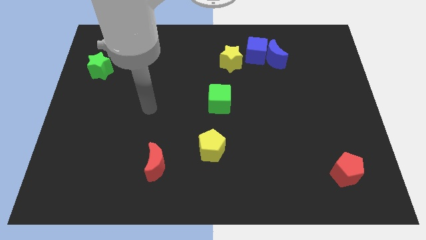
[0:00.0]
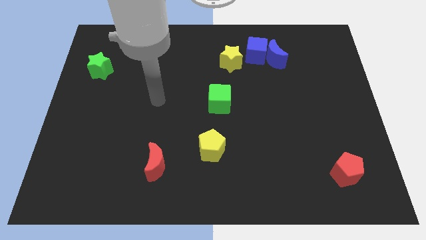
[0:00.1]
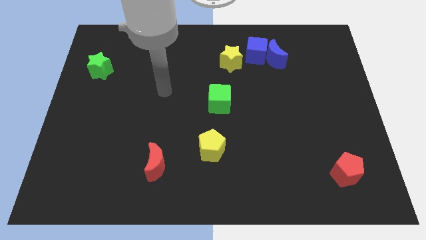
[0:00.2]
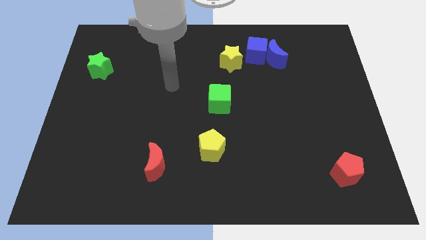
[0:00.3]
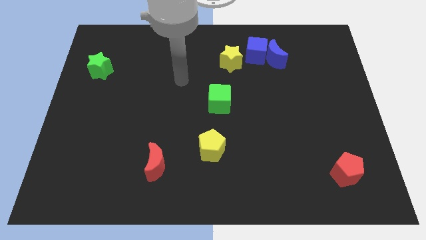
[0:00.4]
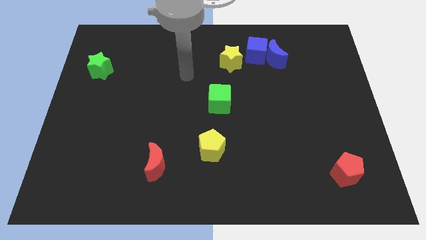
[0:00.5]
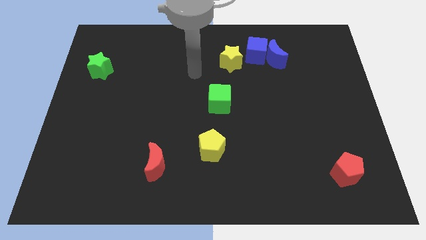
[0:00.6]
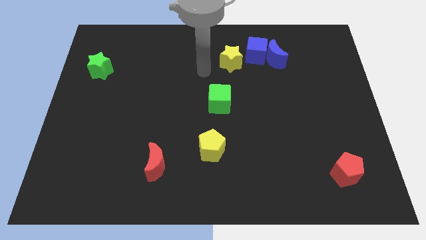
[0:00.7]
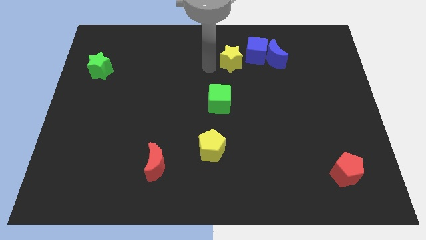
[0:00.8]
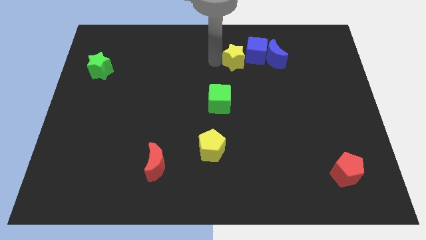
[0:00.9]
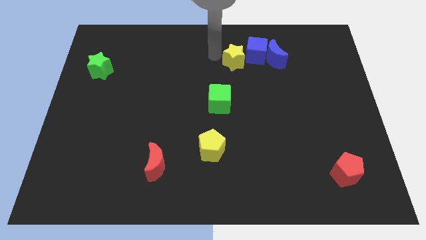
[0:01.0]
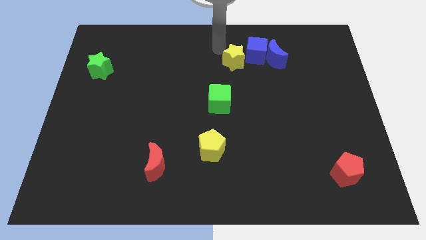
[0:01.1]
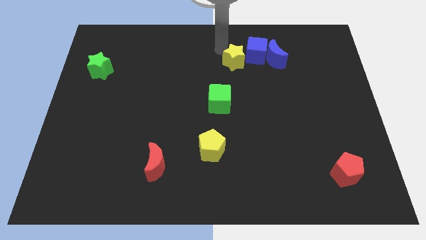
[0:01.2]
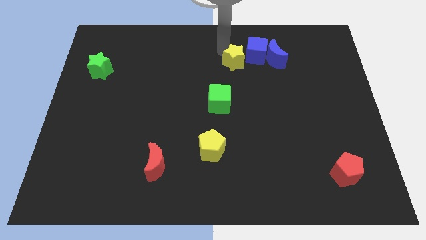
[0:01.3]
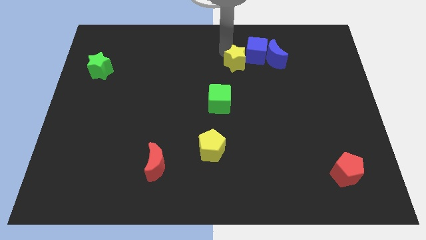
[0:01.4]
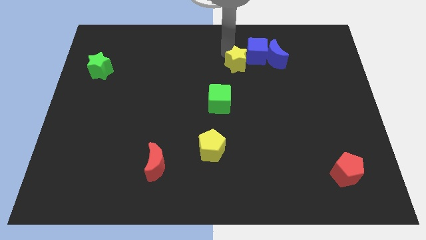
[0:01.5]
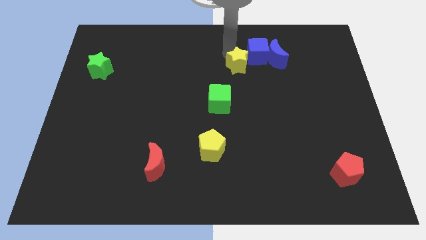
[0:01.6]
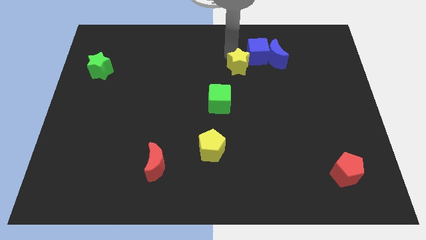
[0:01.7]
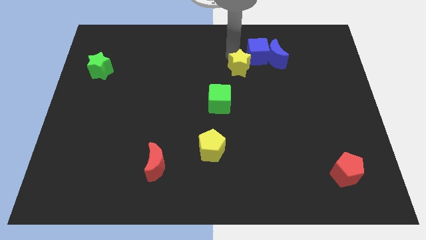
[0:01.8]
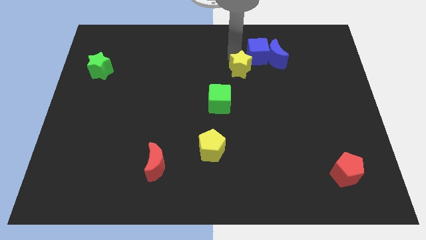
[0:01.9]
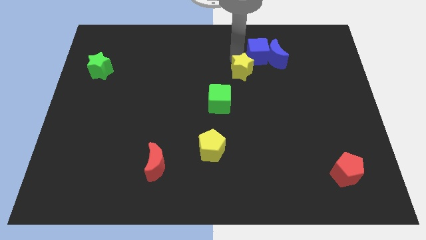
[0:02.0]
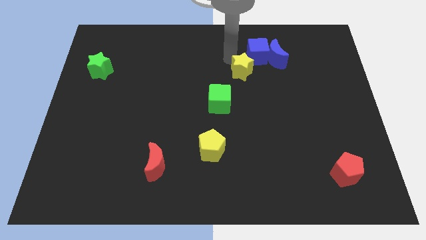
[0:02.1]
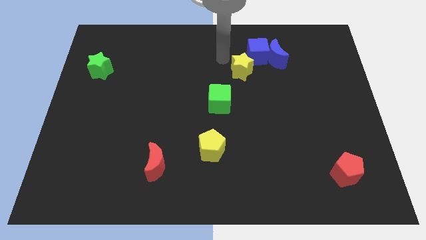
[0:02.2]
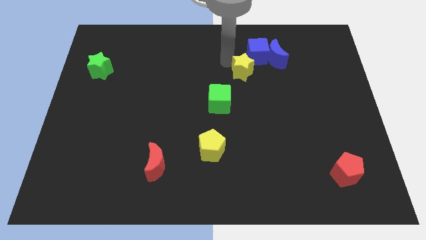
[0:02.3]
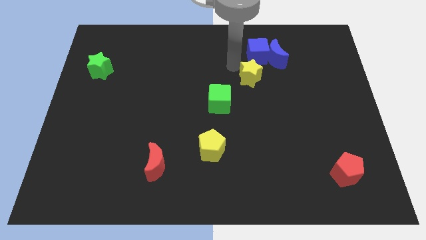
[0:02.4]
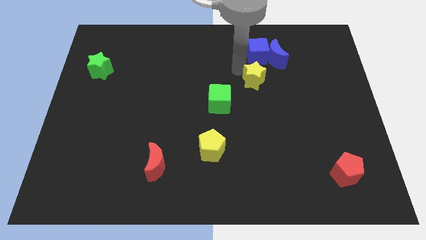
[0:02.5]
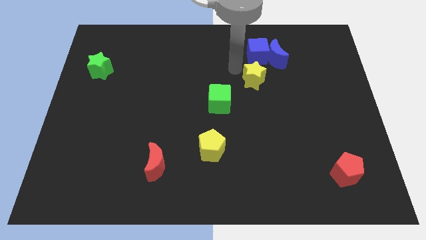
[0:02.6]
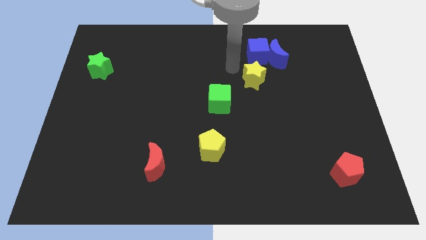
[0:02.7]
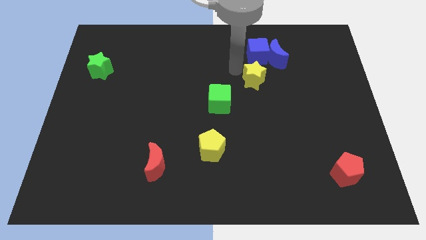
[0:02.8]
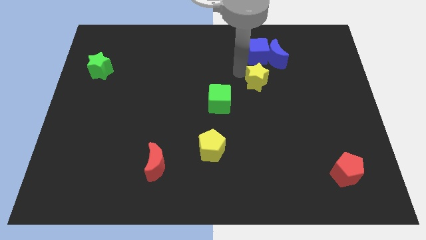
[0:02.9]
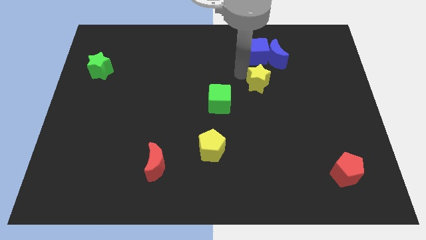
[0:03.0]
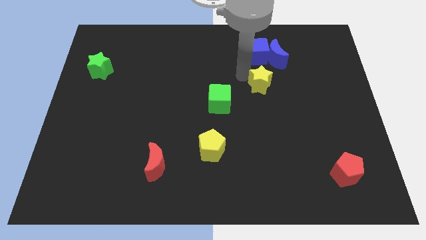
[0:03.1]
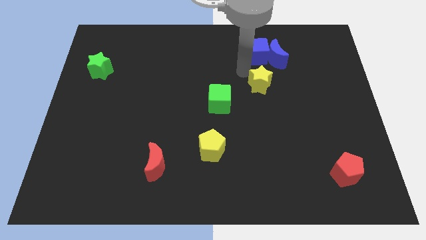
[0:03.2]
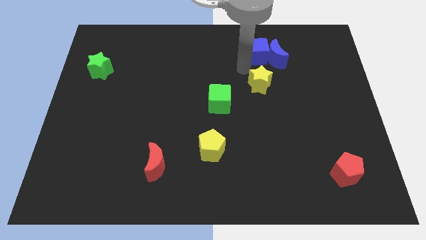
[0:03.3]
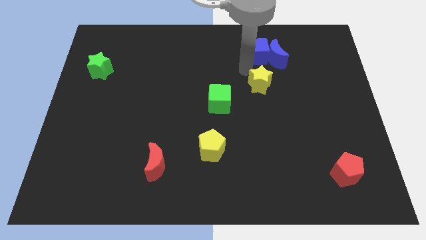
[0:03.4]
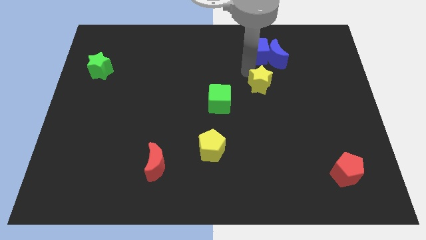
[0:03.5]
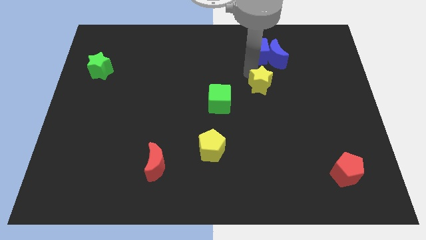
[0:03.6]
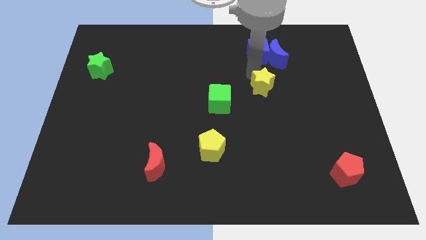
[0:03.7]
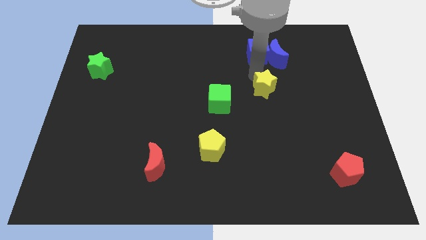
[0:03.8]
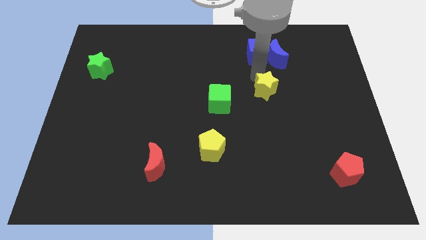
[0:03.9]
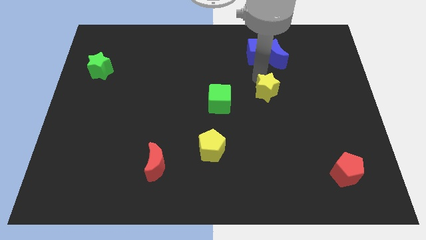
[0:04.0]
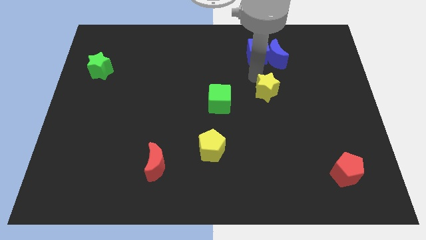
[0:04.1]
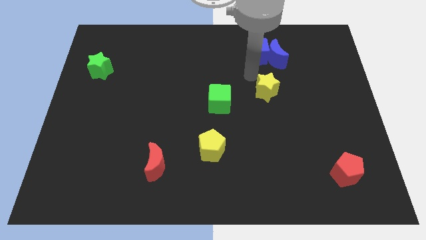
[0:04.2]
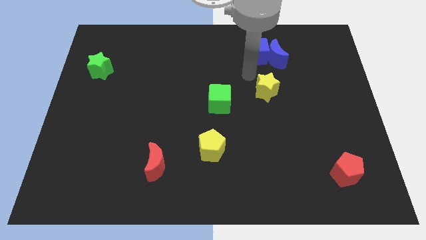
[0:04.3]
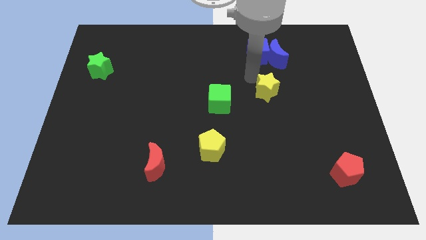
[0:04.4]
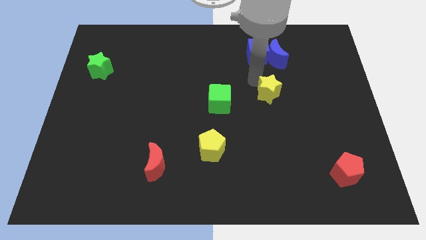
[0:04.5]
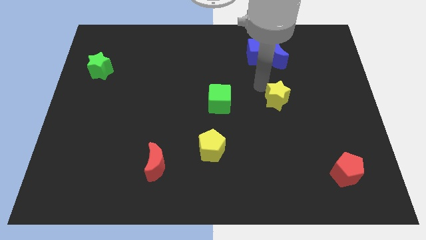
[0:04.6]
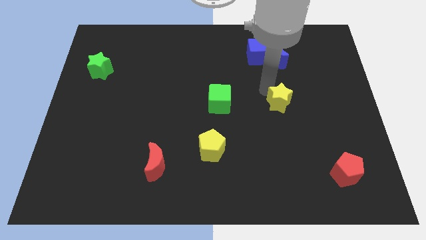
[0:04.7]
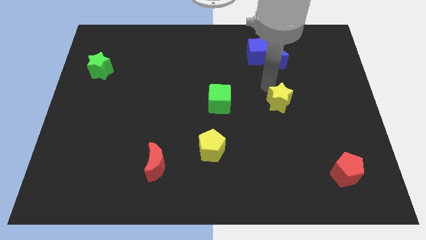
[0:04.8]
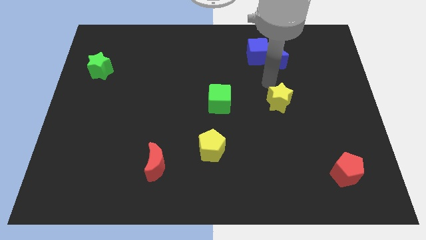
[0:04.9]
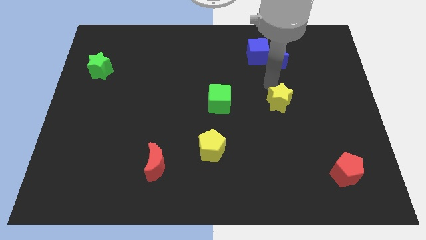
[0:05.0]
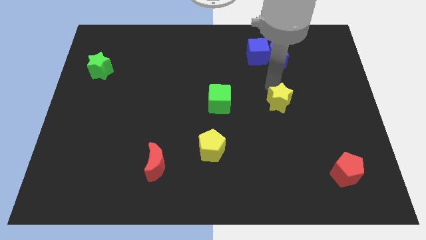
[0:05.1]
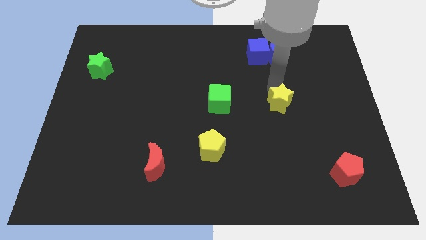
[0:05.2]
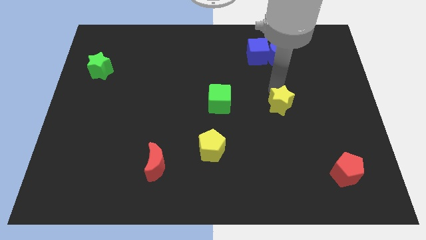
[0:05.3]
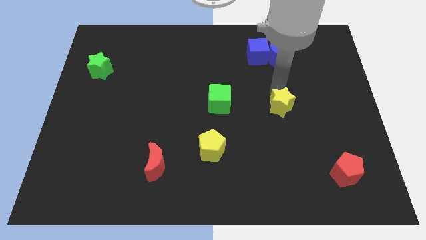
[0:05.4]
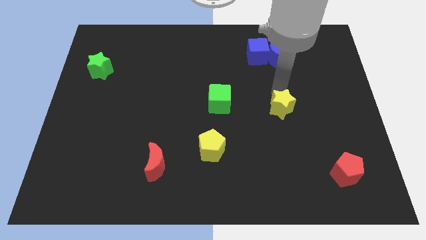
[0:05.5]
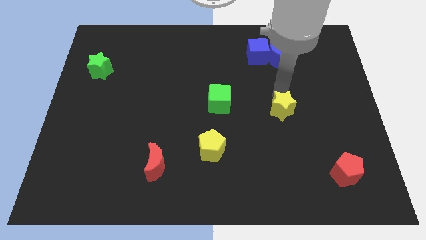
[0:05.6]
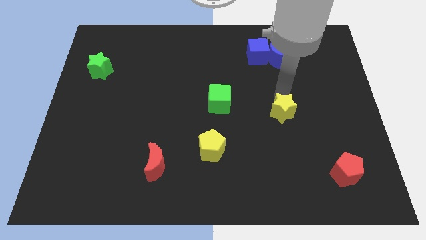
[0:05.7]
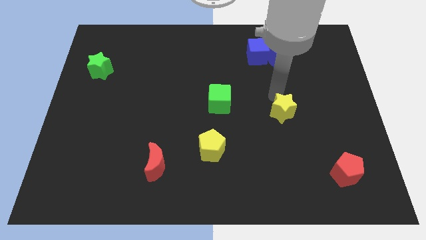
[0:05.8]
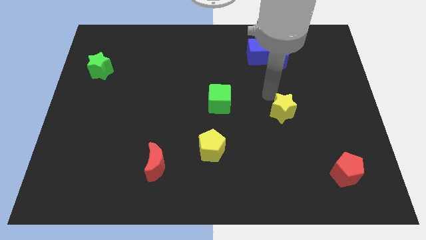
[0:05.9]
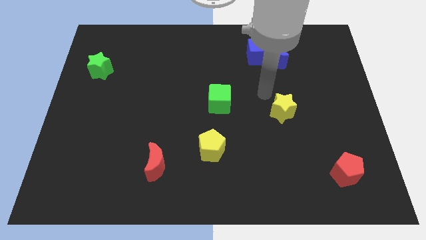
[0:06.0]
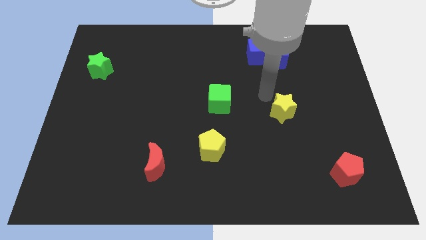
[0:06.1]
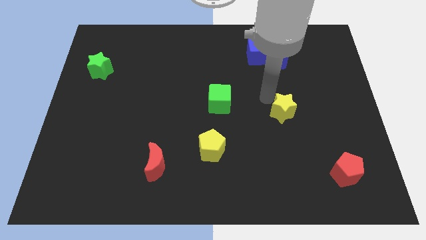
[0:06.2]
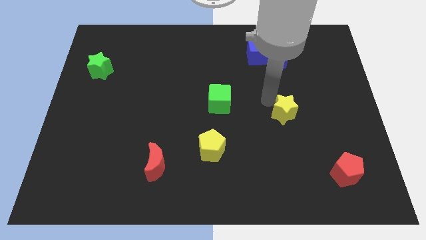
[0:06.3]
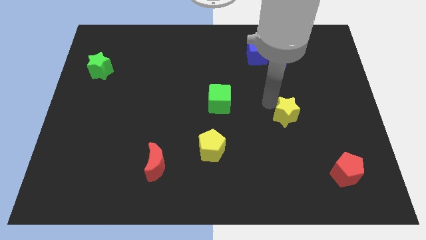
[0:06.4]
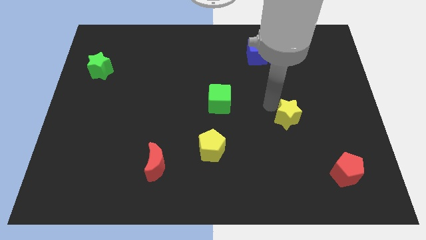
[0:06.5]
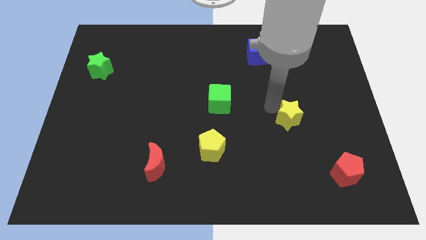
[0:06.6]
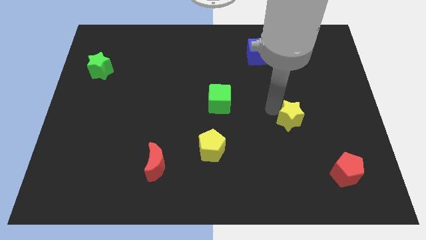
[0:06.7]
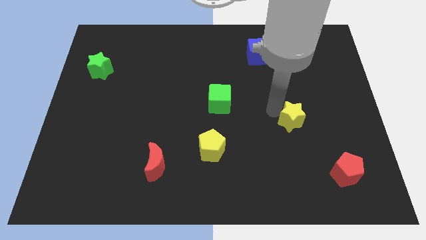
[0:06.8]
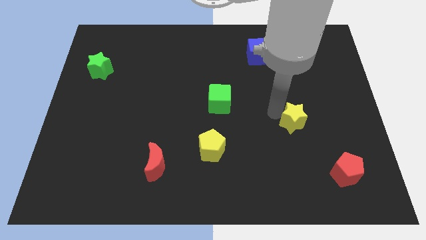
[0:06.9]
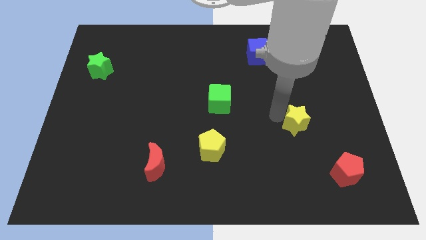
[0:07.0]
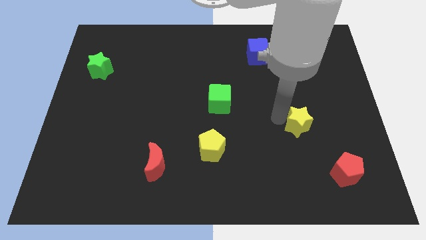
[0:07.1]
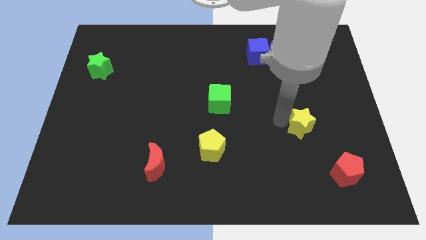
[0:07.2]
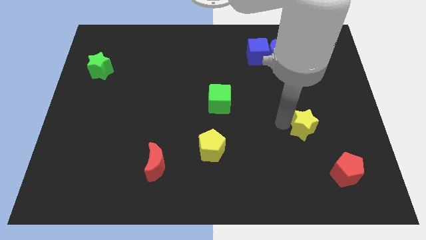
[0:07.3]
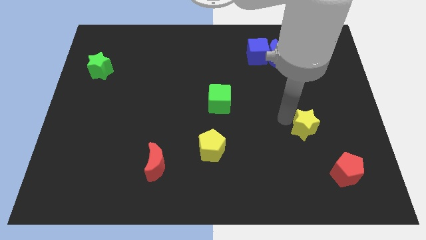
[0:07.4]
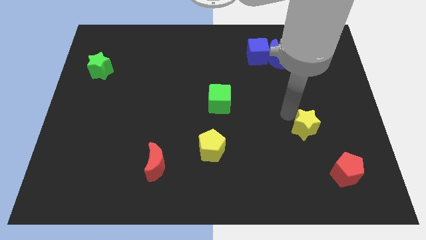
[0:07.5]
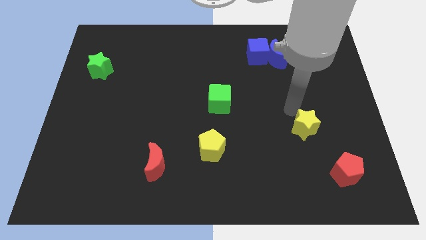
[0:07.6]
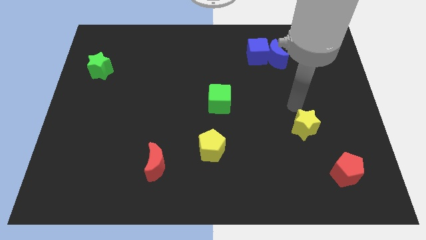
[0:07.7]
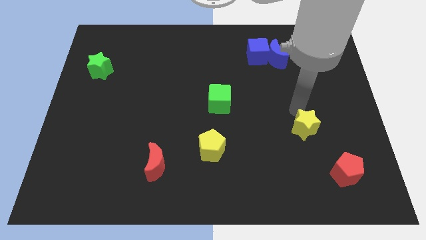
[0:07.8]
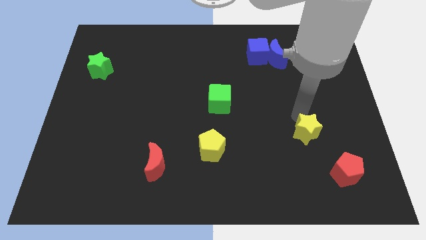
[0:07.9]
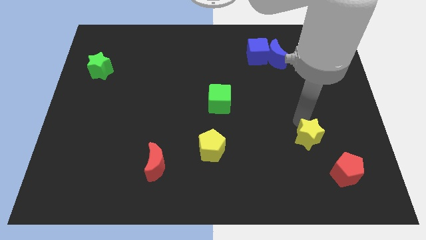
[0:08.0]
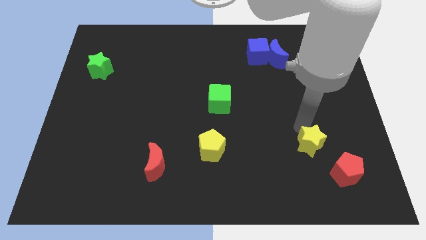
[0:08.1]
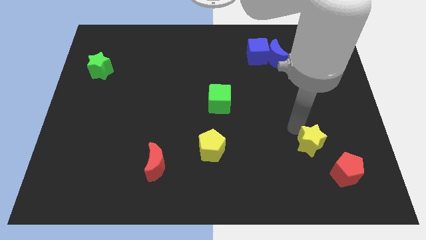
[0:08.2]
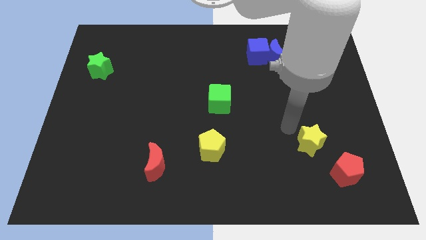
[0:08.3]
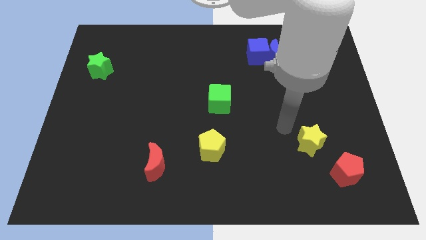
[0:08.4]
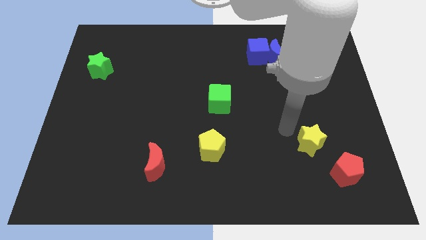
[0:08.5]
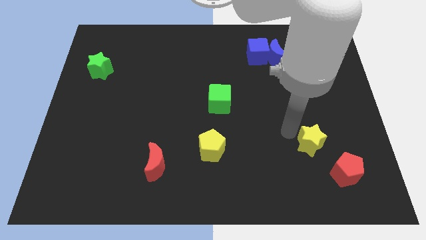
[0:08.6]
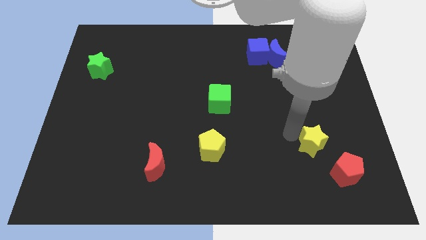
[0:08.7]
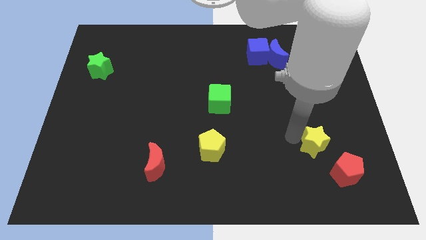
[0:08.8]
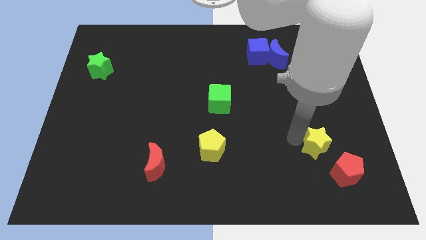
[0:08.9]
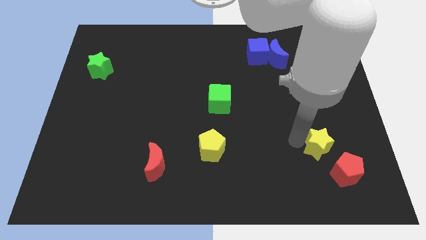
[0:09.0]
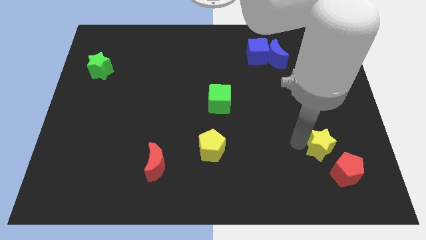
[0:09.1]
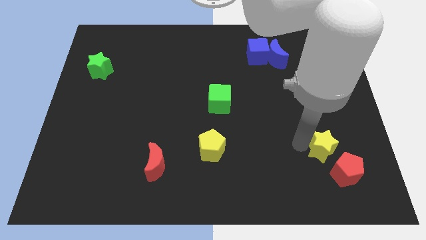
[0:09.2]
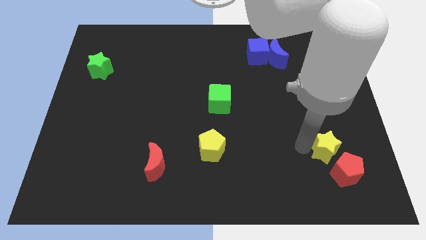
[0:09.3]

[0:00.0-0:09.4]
push the yellow star towards the red pentagon
